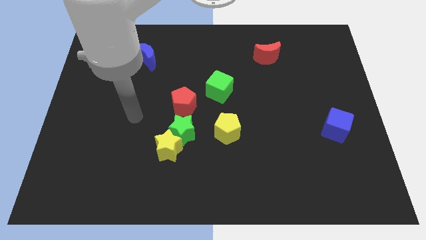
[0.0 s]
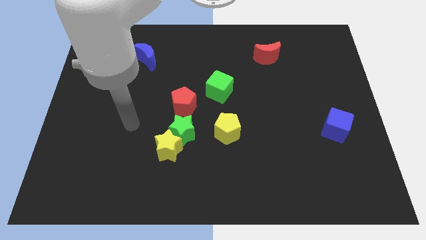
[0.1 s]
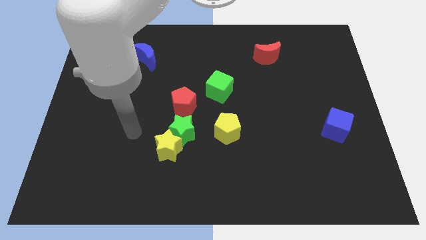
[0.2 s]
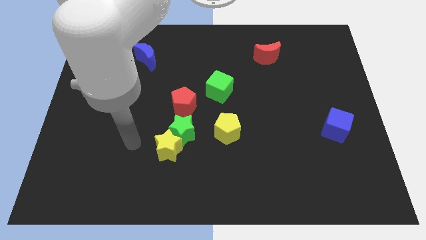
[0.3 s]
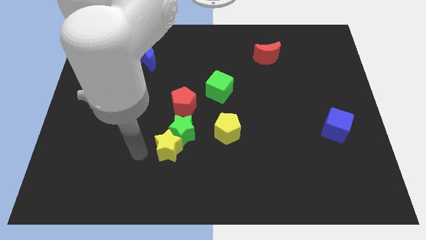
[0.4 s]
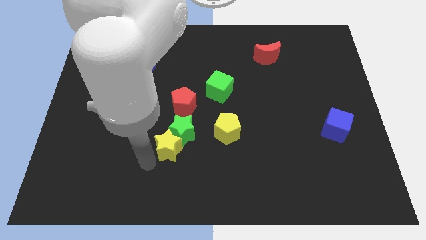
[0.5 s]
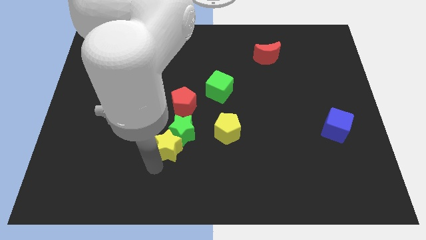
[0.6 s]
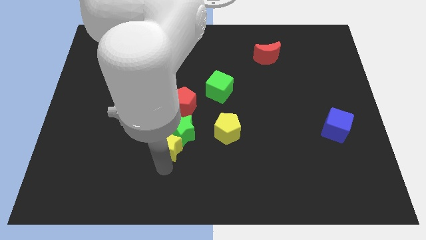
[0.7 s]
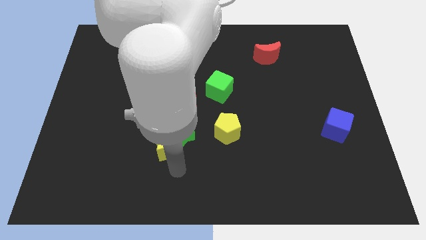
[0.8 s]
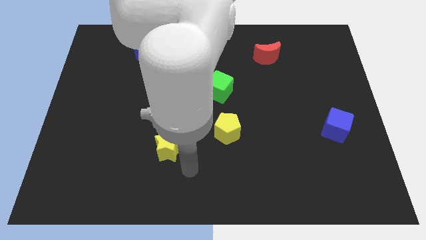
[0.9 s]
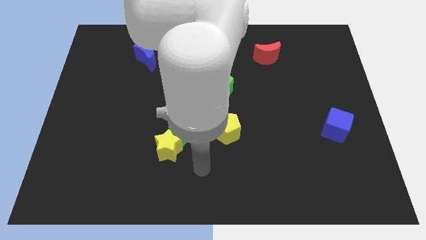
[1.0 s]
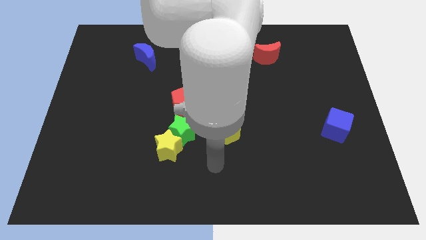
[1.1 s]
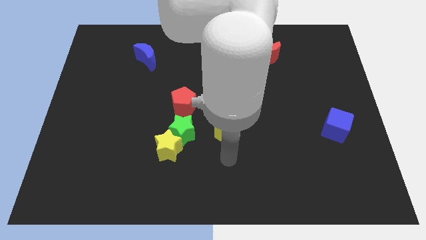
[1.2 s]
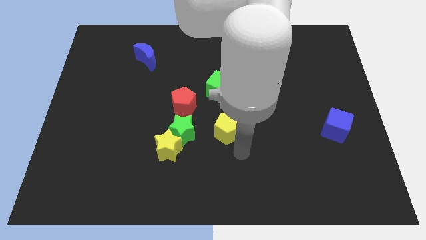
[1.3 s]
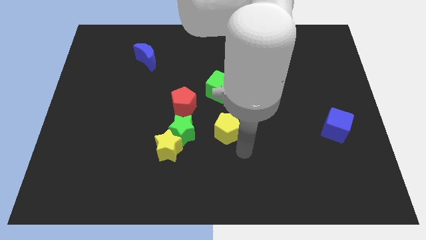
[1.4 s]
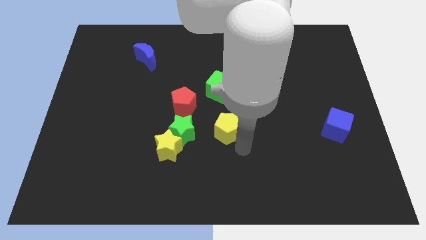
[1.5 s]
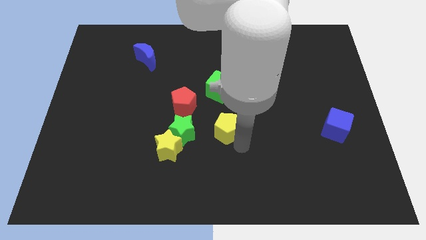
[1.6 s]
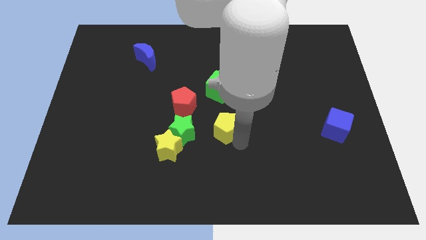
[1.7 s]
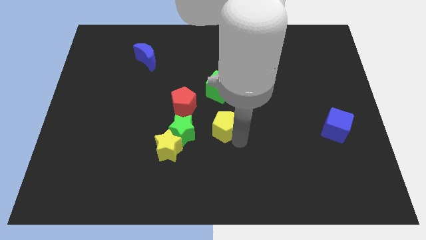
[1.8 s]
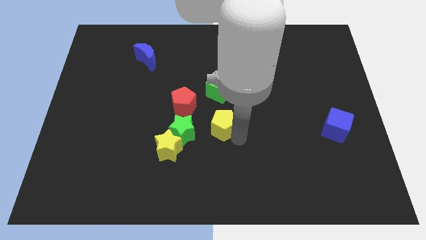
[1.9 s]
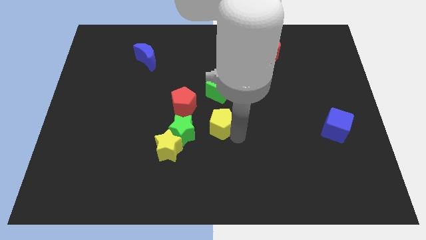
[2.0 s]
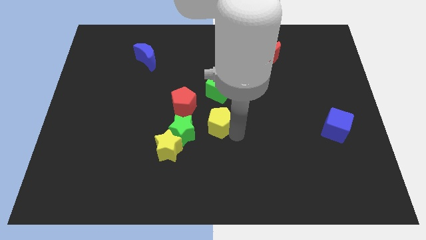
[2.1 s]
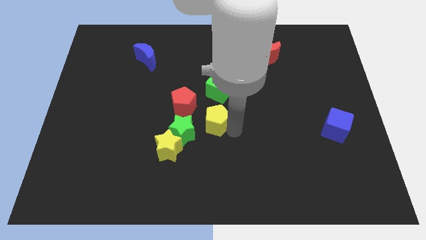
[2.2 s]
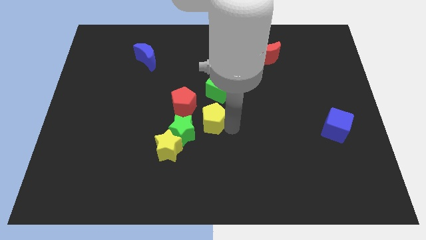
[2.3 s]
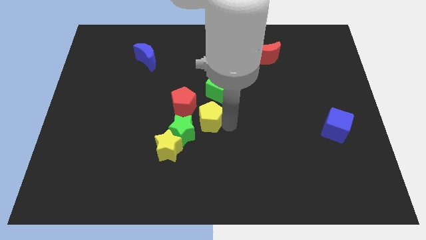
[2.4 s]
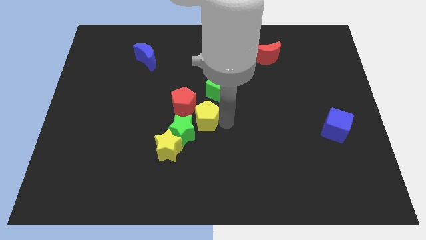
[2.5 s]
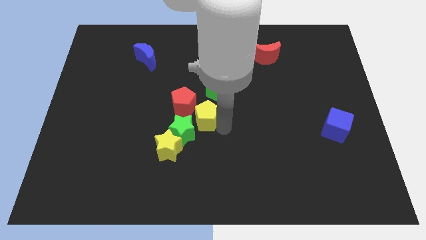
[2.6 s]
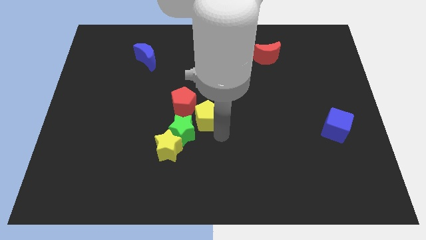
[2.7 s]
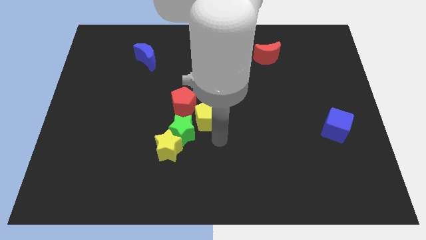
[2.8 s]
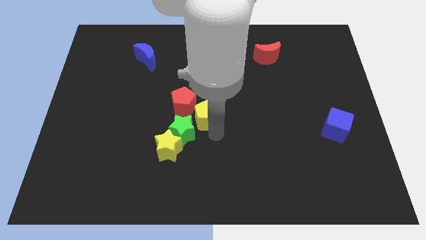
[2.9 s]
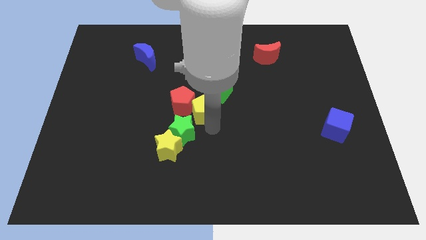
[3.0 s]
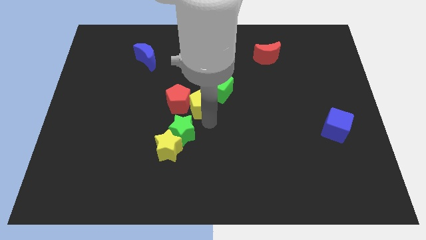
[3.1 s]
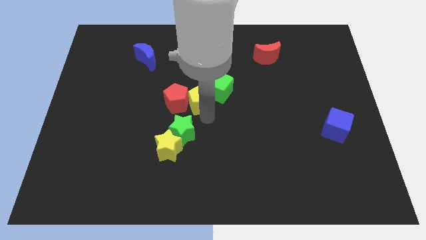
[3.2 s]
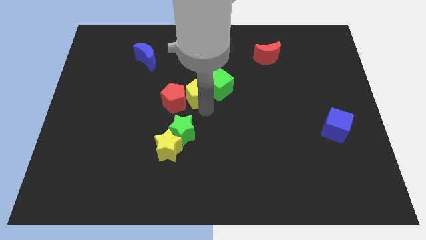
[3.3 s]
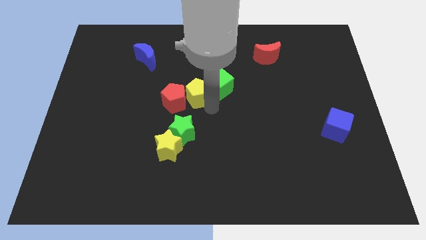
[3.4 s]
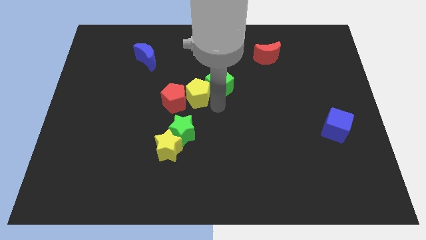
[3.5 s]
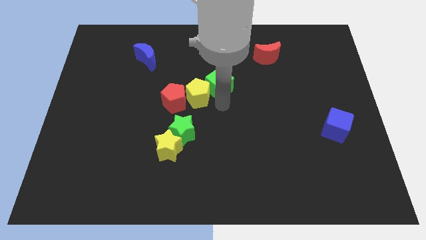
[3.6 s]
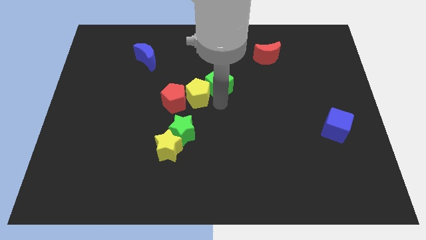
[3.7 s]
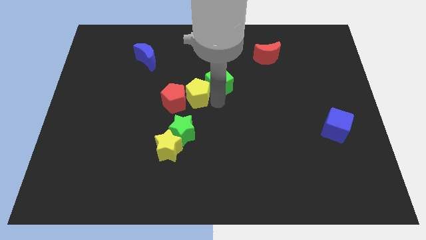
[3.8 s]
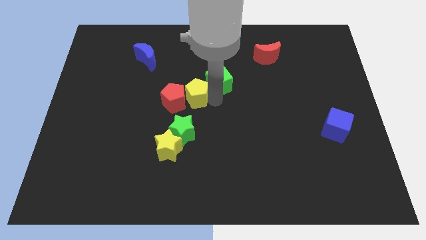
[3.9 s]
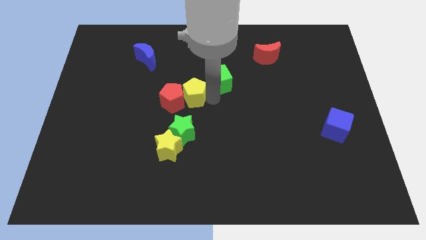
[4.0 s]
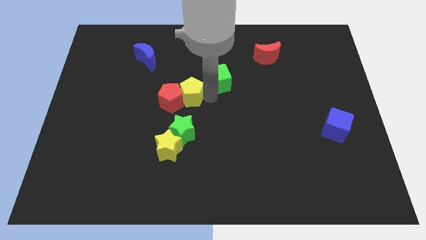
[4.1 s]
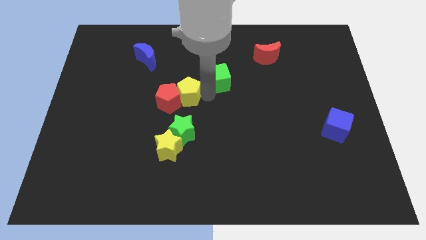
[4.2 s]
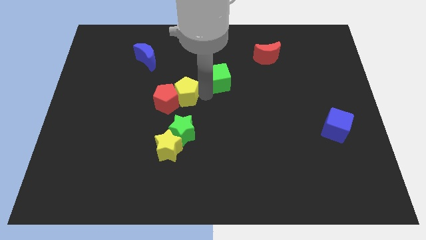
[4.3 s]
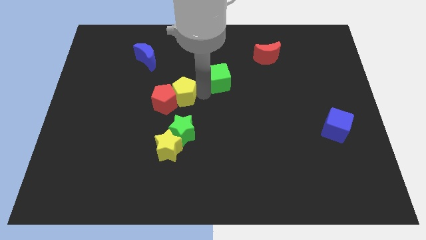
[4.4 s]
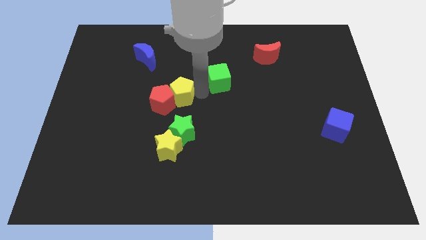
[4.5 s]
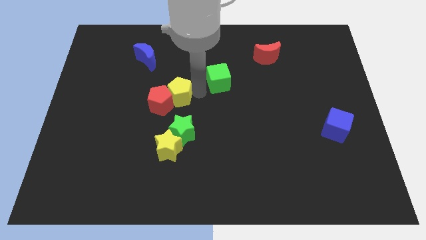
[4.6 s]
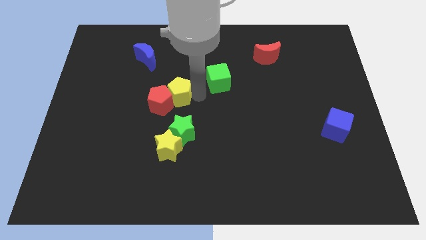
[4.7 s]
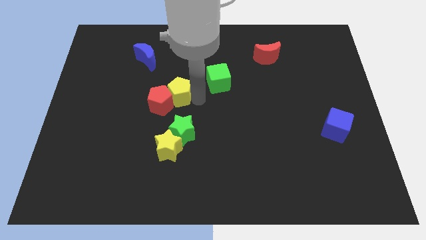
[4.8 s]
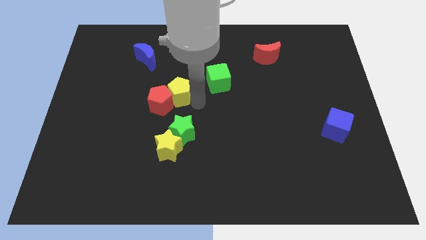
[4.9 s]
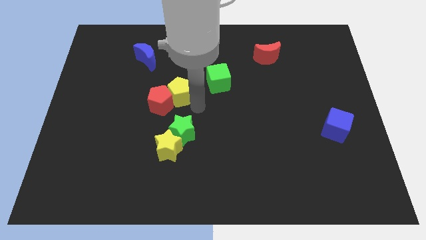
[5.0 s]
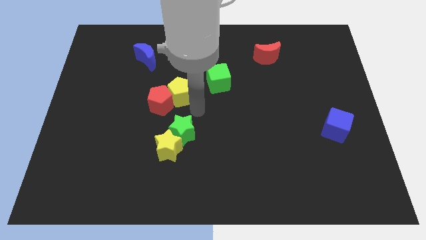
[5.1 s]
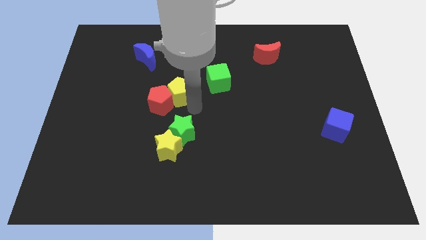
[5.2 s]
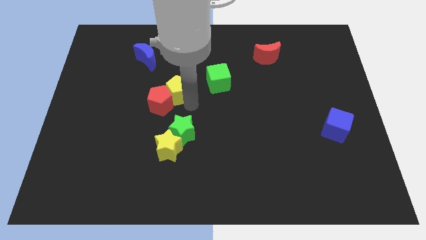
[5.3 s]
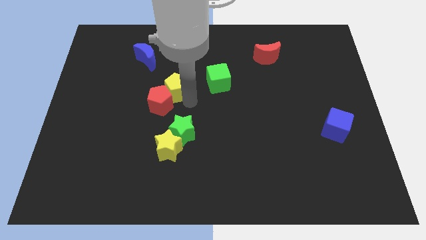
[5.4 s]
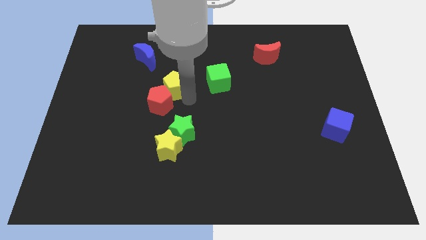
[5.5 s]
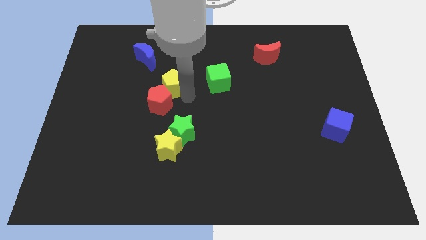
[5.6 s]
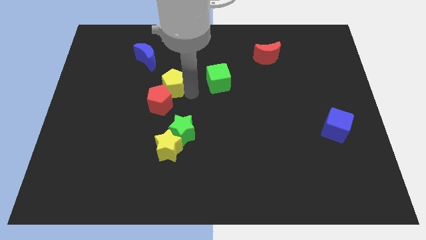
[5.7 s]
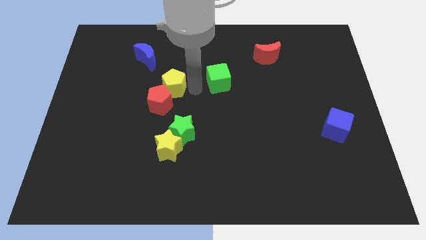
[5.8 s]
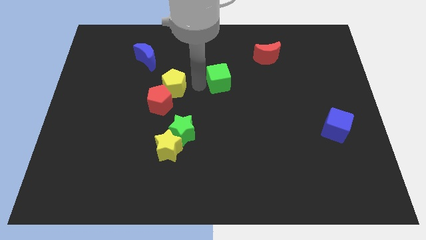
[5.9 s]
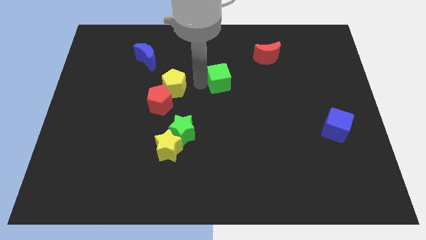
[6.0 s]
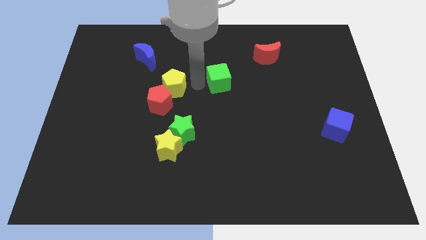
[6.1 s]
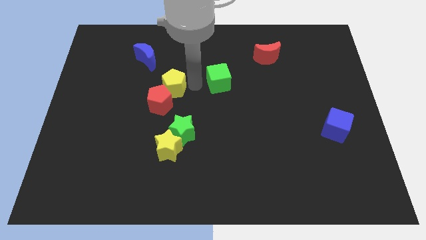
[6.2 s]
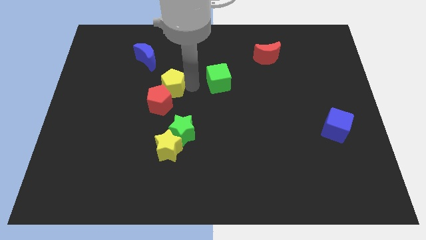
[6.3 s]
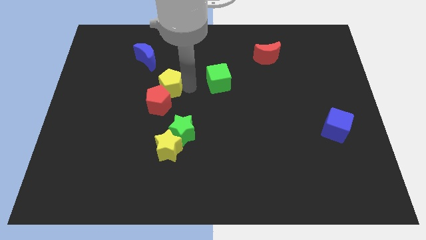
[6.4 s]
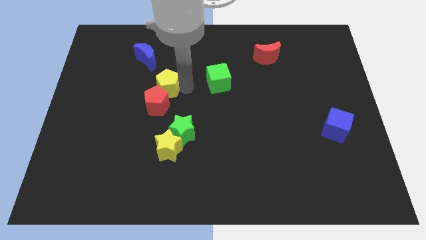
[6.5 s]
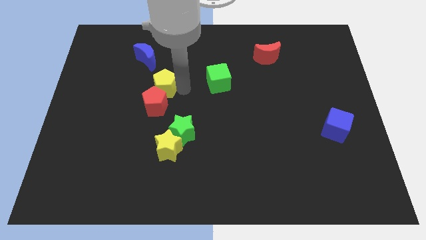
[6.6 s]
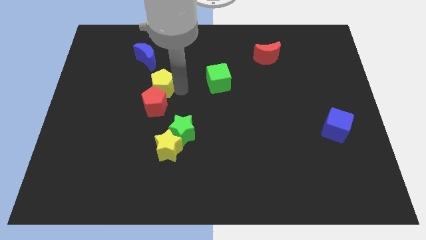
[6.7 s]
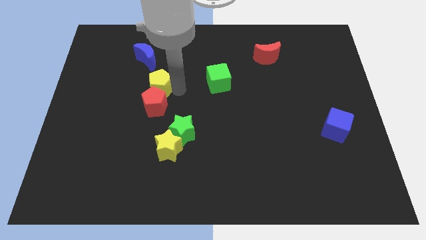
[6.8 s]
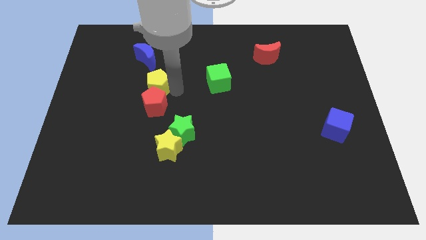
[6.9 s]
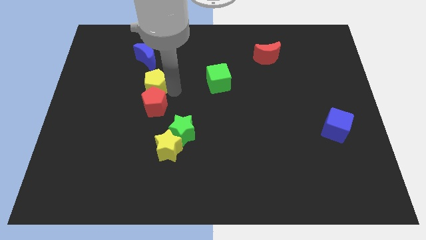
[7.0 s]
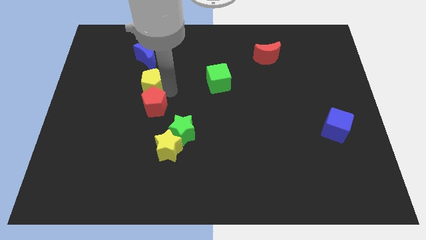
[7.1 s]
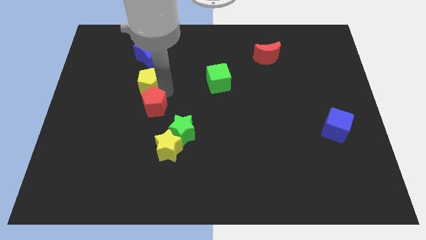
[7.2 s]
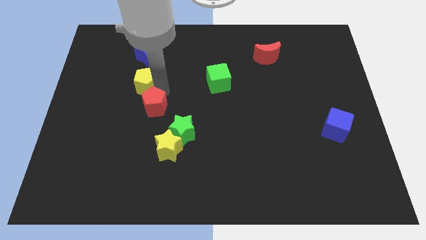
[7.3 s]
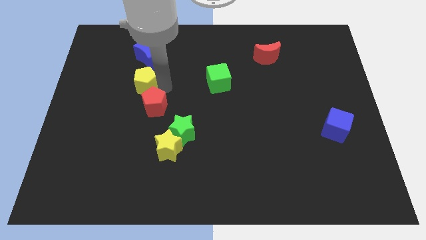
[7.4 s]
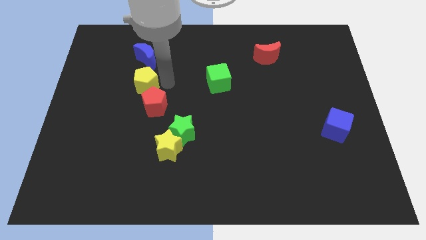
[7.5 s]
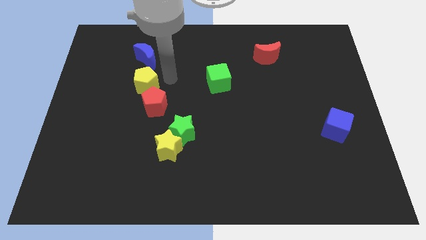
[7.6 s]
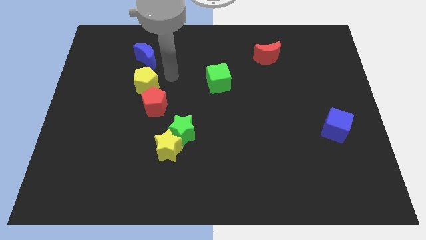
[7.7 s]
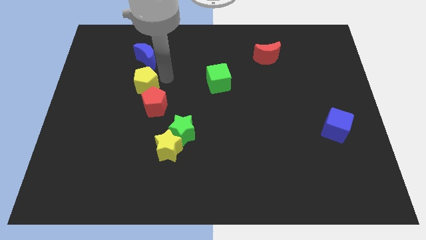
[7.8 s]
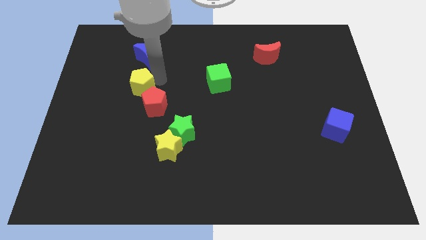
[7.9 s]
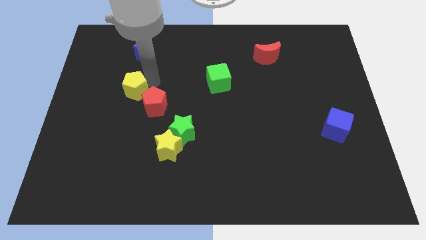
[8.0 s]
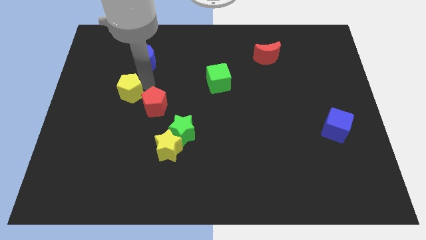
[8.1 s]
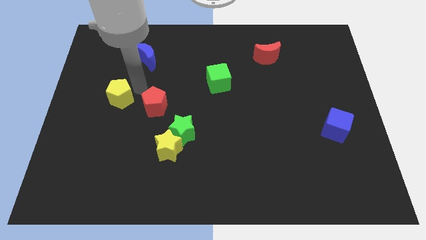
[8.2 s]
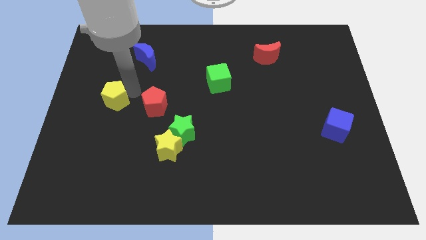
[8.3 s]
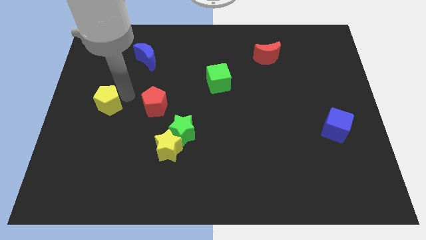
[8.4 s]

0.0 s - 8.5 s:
move the yellow pentagon to the left side
